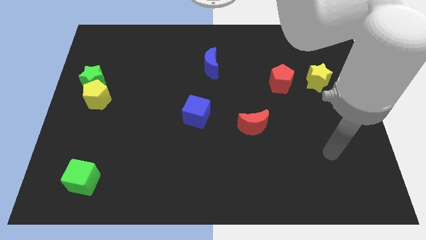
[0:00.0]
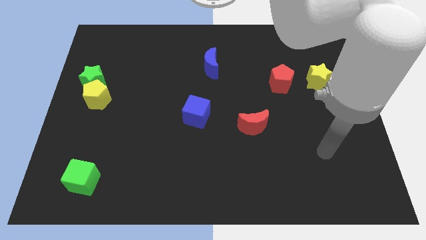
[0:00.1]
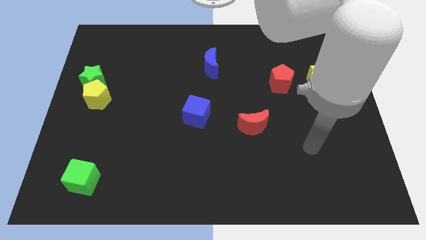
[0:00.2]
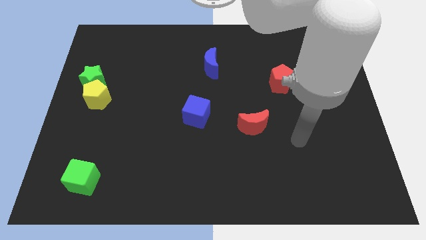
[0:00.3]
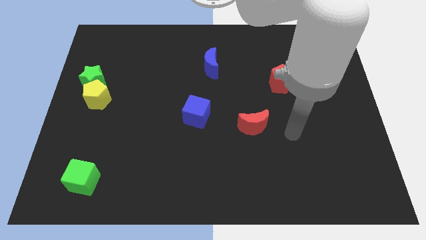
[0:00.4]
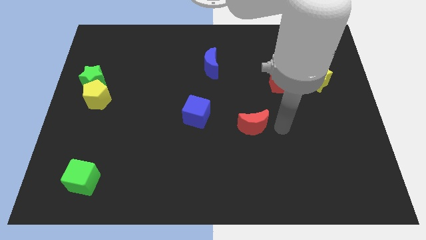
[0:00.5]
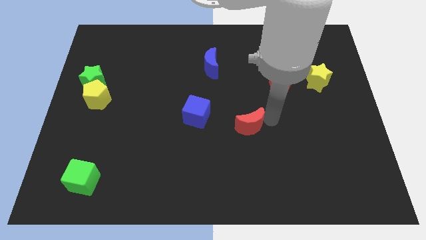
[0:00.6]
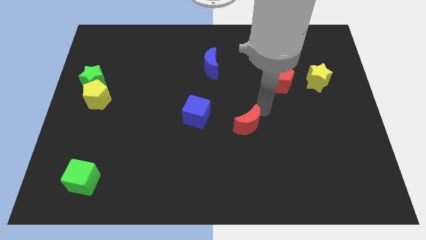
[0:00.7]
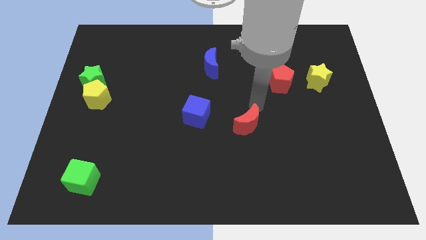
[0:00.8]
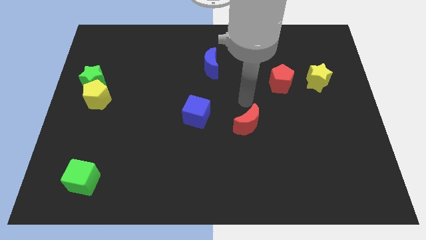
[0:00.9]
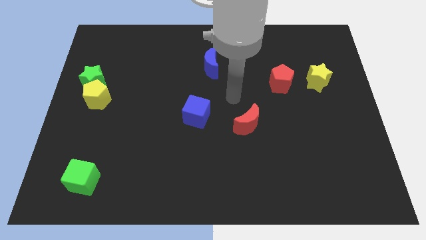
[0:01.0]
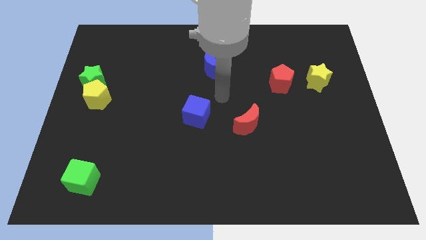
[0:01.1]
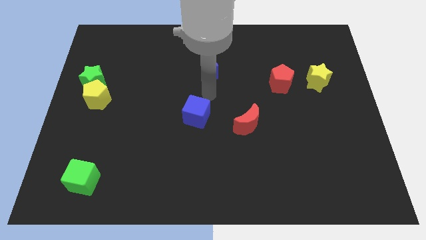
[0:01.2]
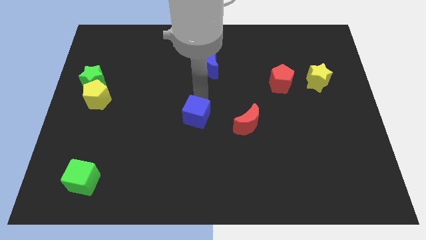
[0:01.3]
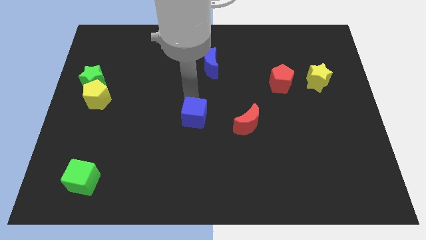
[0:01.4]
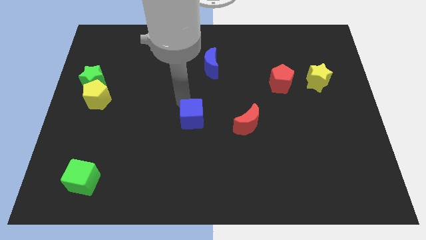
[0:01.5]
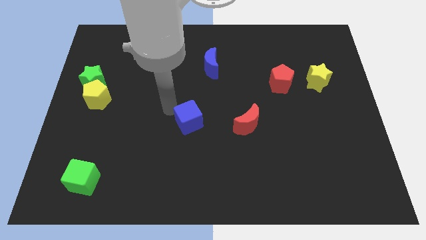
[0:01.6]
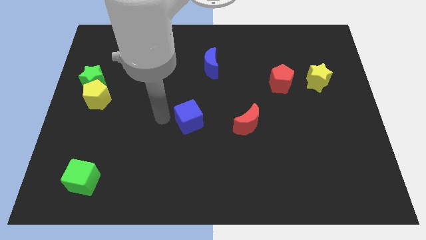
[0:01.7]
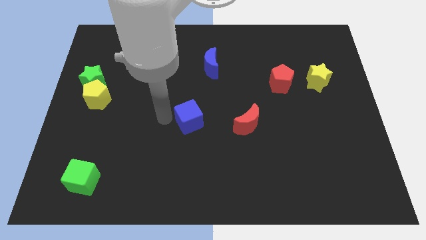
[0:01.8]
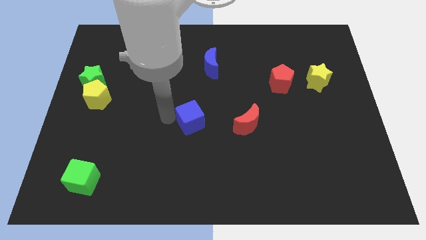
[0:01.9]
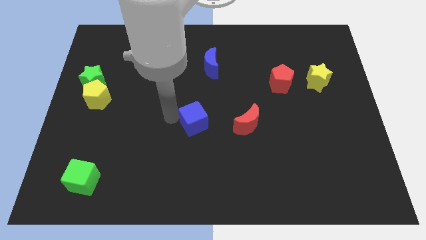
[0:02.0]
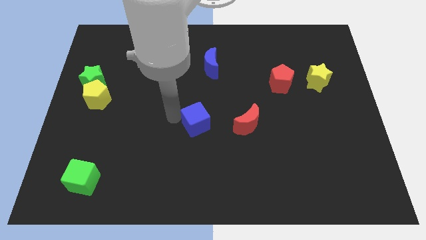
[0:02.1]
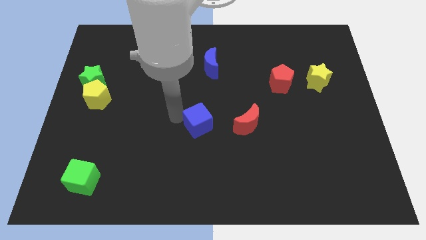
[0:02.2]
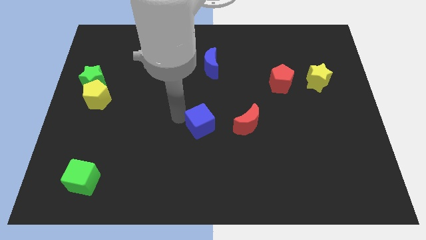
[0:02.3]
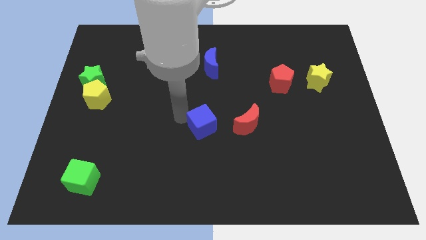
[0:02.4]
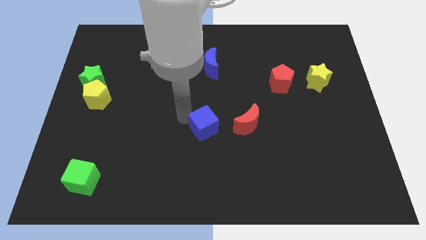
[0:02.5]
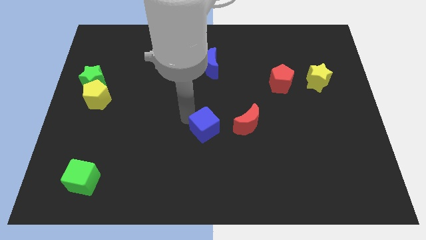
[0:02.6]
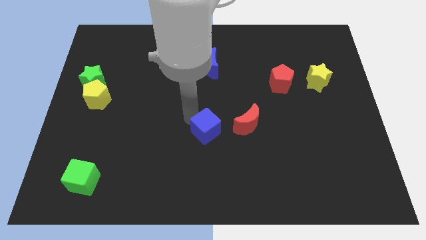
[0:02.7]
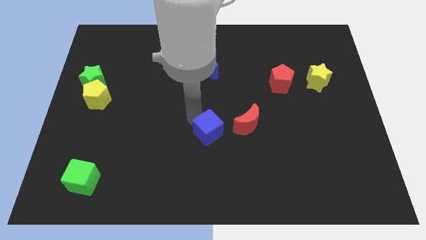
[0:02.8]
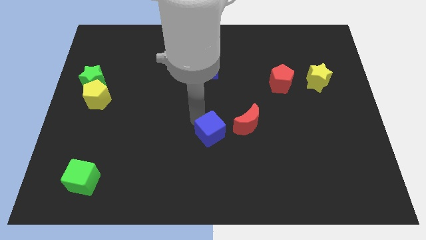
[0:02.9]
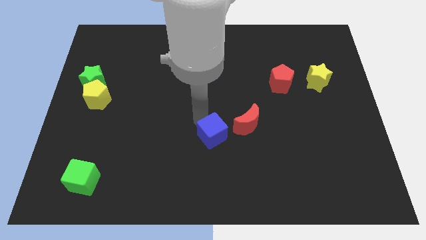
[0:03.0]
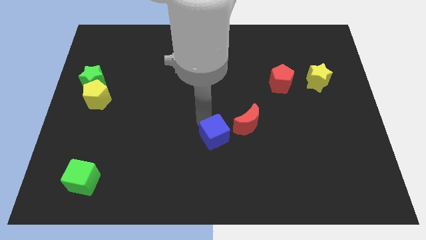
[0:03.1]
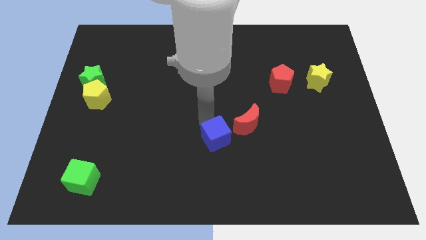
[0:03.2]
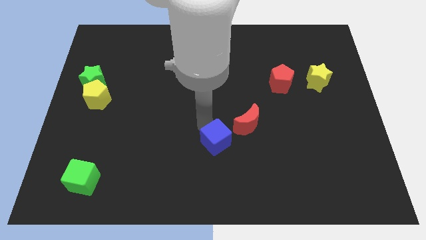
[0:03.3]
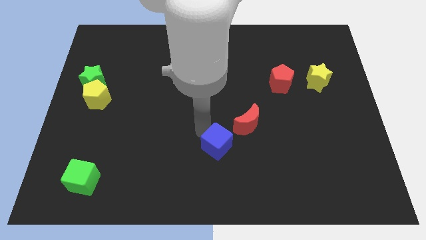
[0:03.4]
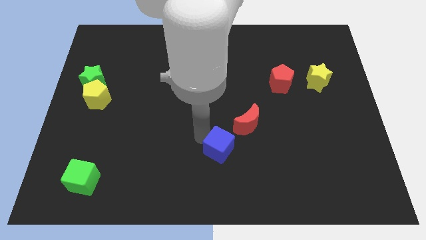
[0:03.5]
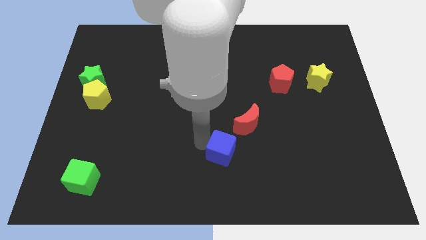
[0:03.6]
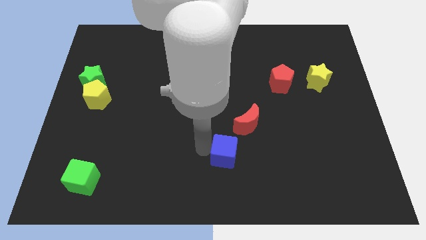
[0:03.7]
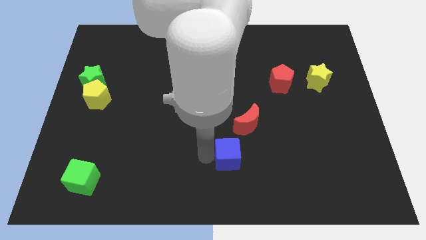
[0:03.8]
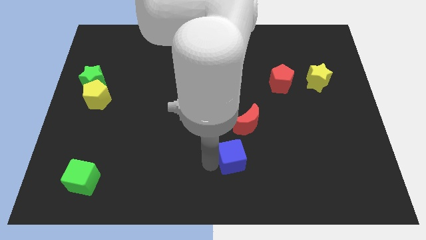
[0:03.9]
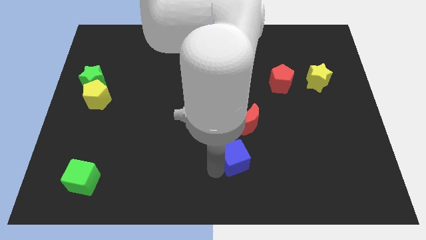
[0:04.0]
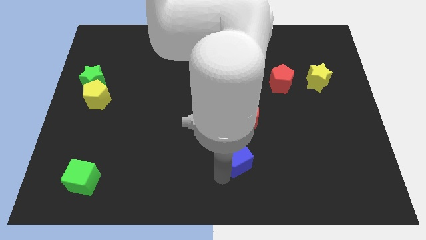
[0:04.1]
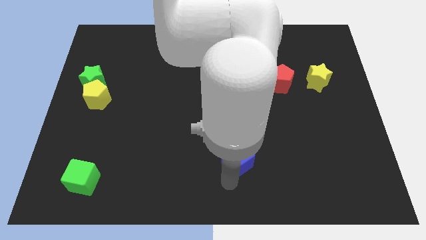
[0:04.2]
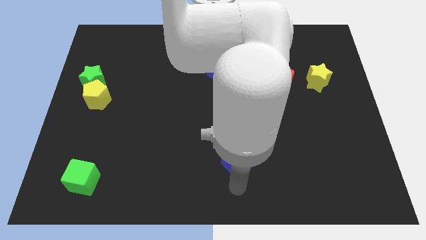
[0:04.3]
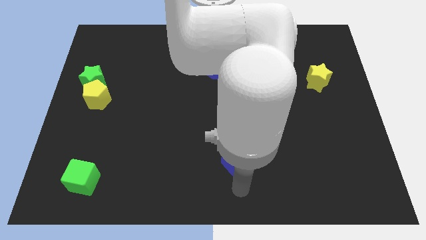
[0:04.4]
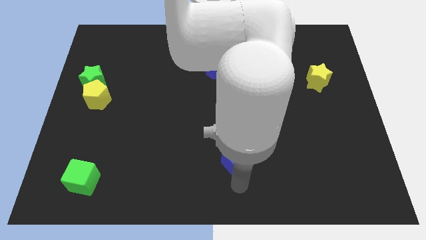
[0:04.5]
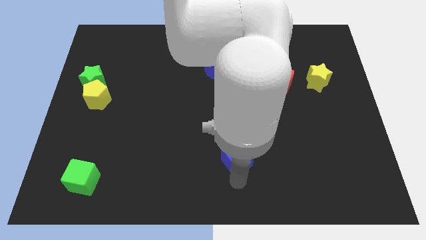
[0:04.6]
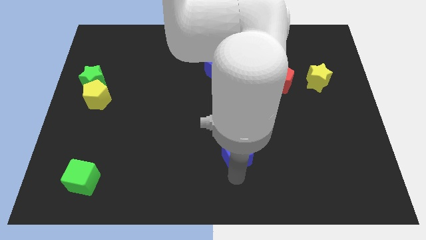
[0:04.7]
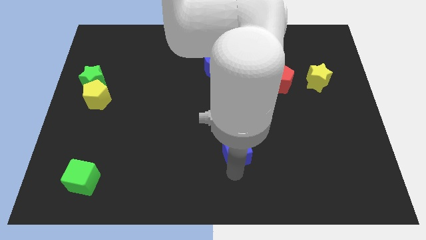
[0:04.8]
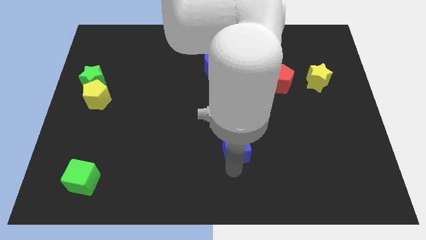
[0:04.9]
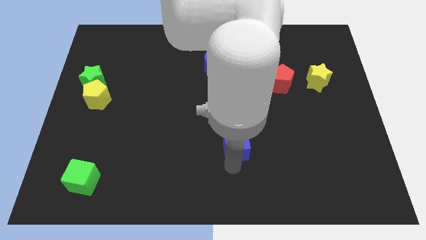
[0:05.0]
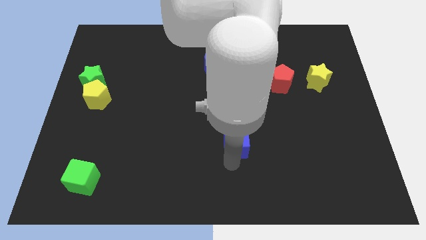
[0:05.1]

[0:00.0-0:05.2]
put the blue cube to the red moon

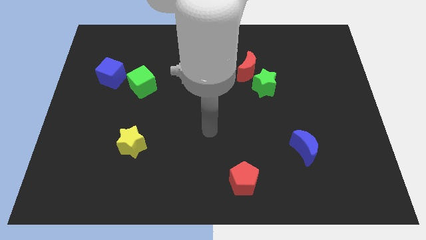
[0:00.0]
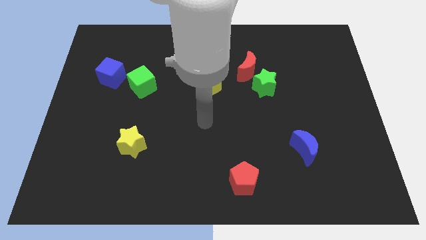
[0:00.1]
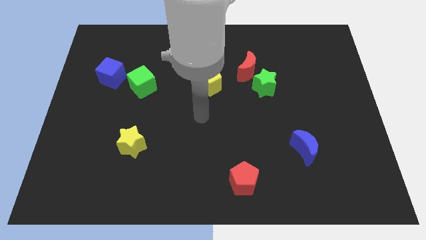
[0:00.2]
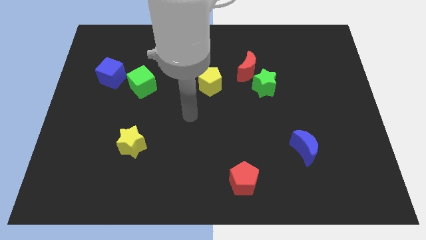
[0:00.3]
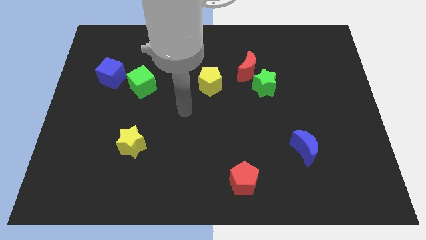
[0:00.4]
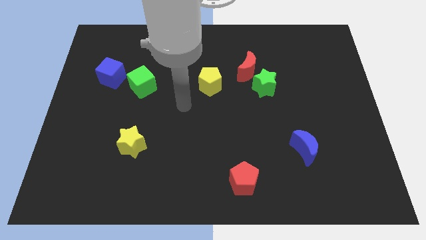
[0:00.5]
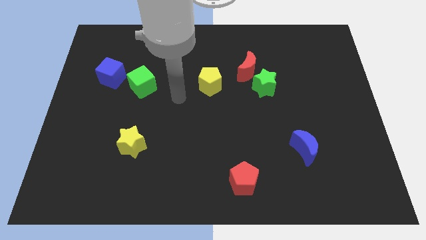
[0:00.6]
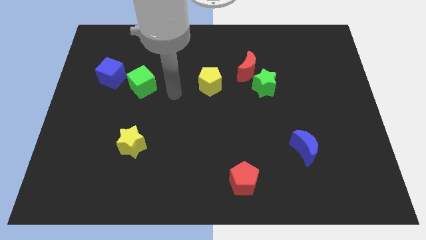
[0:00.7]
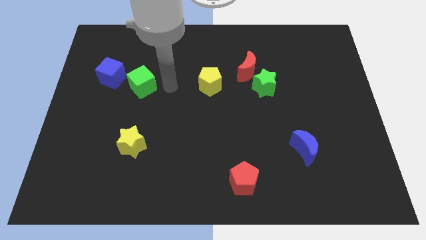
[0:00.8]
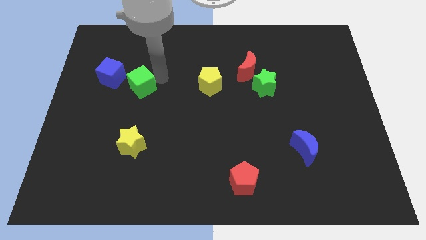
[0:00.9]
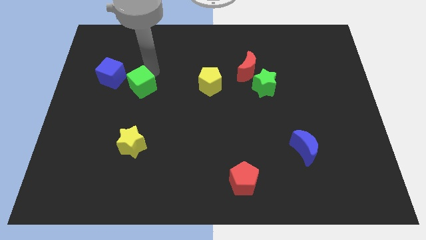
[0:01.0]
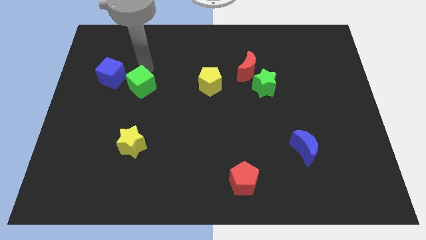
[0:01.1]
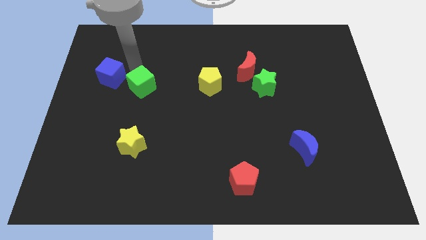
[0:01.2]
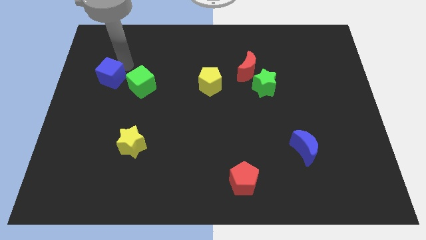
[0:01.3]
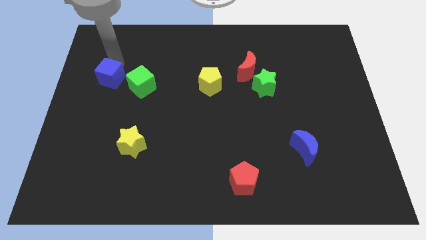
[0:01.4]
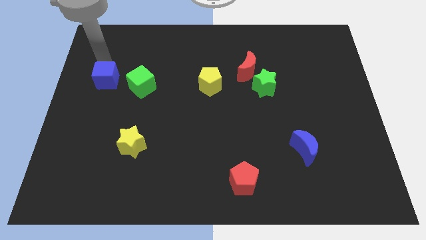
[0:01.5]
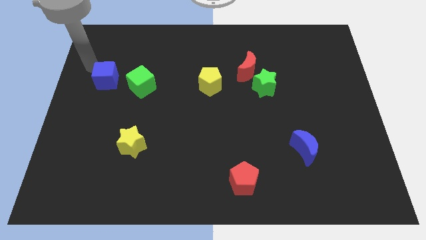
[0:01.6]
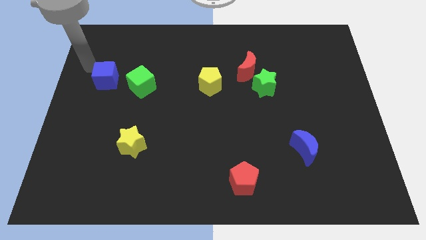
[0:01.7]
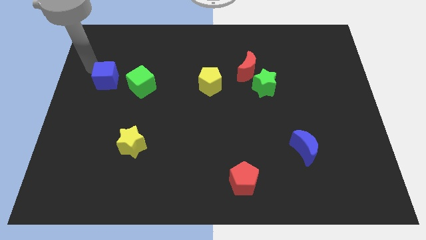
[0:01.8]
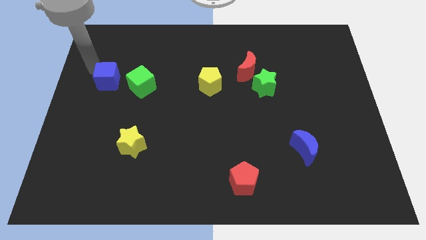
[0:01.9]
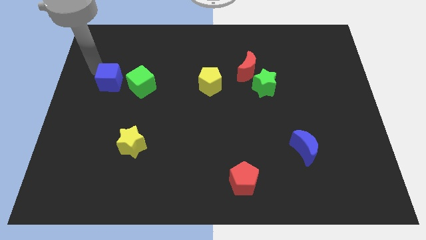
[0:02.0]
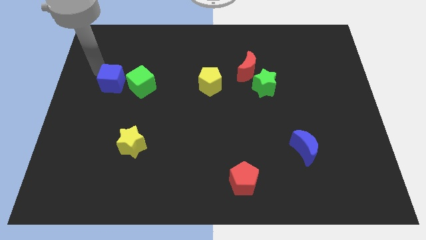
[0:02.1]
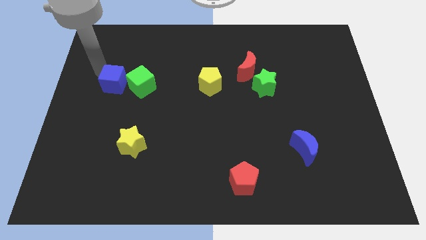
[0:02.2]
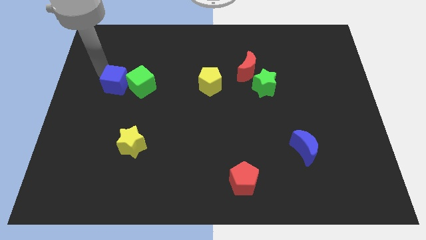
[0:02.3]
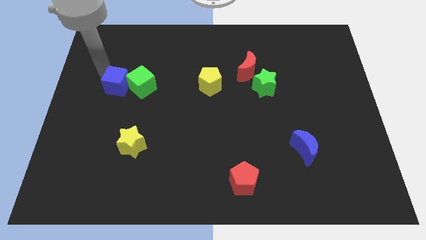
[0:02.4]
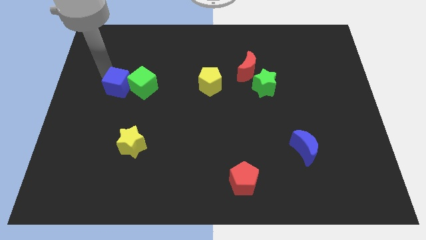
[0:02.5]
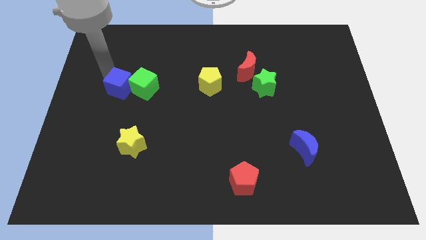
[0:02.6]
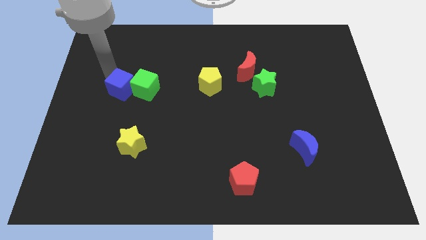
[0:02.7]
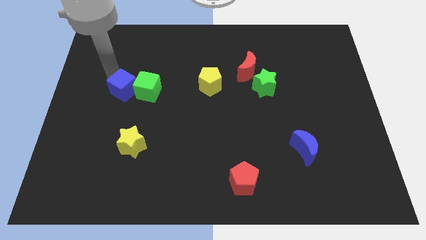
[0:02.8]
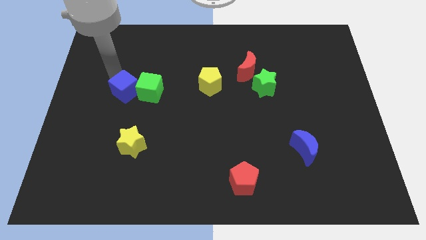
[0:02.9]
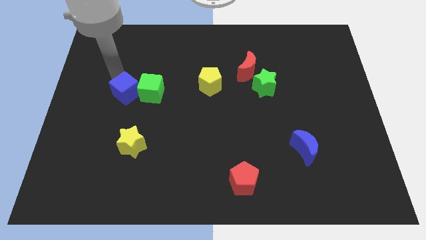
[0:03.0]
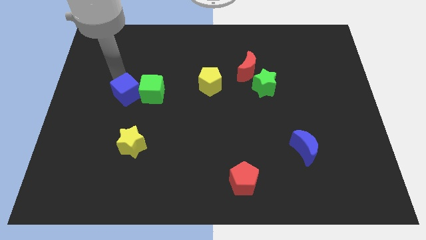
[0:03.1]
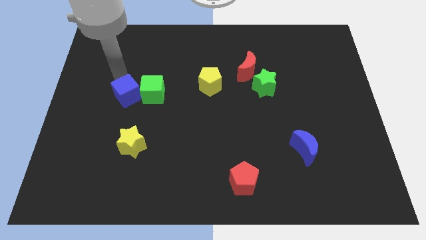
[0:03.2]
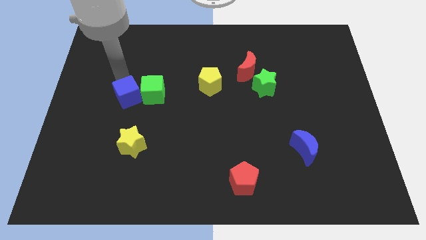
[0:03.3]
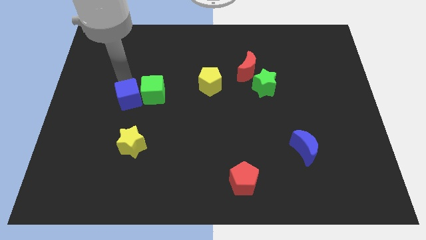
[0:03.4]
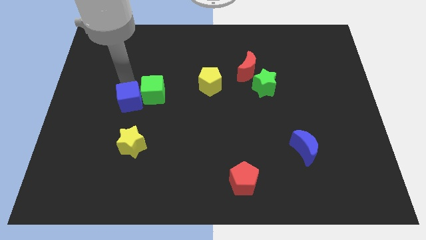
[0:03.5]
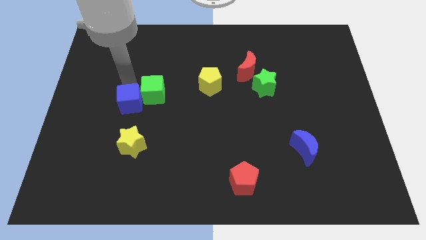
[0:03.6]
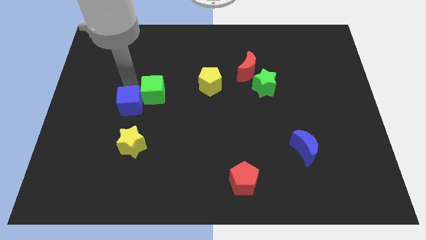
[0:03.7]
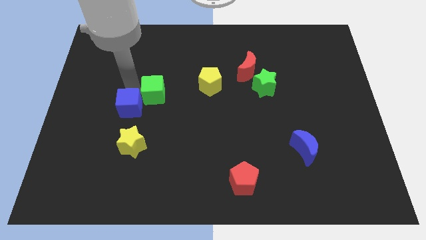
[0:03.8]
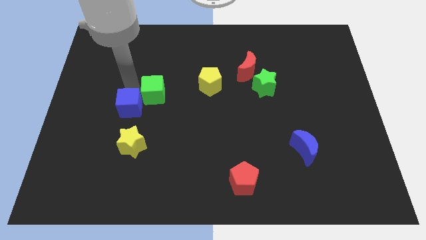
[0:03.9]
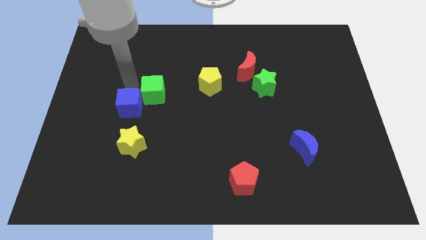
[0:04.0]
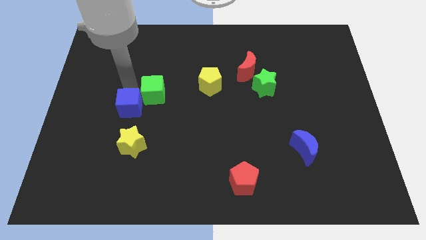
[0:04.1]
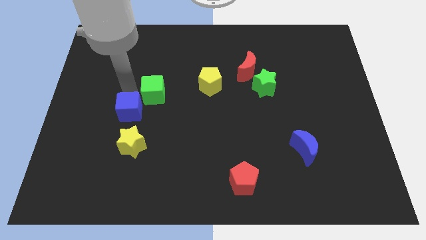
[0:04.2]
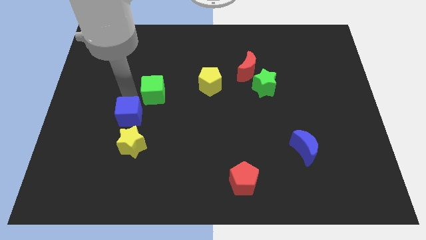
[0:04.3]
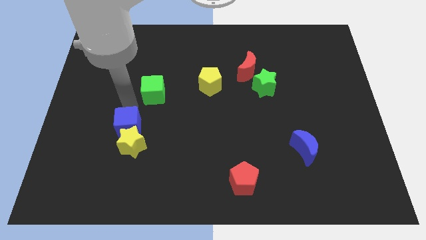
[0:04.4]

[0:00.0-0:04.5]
move the blue cube to the yellow star
